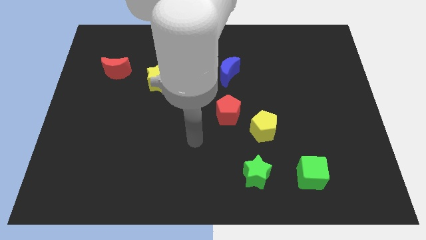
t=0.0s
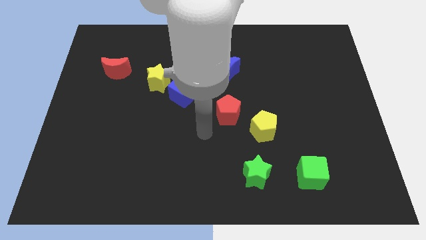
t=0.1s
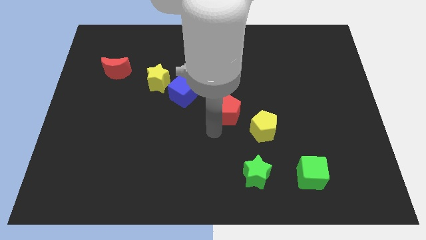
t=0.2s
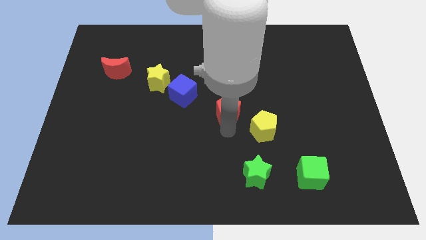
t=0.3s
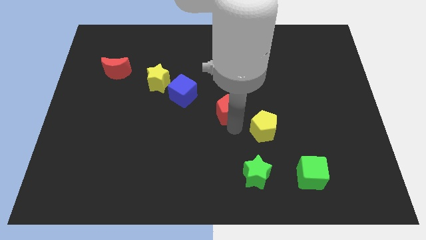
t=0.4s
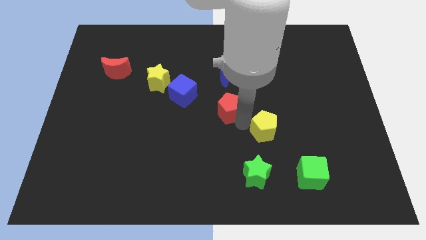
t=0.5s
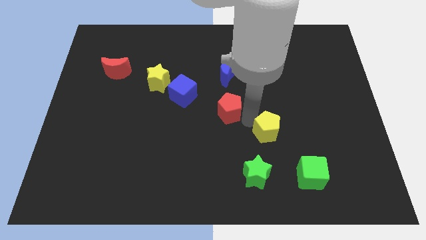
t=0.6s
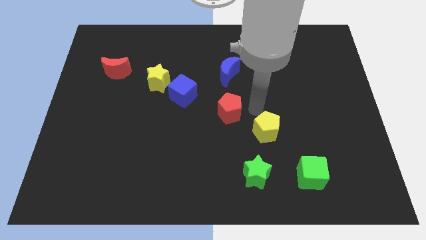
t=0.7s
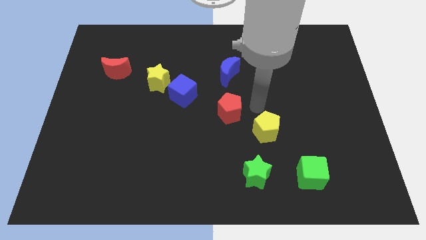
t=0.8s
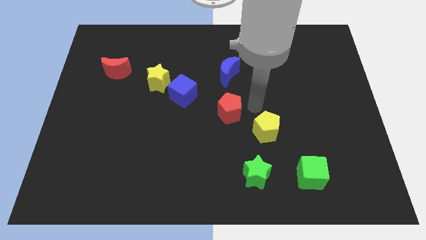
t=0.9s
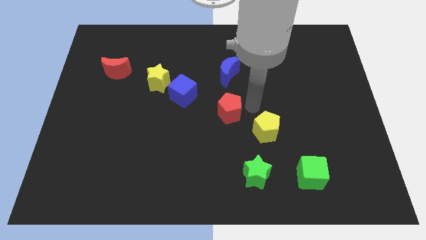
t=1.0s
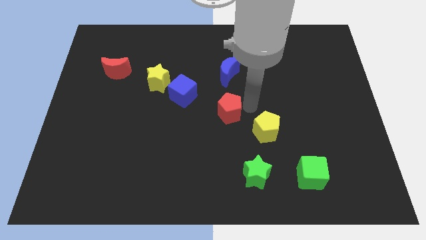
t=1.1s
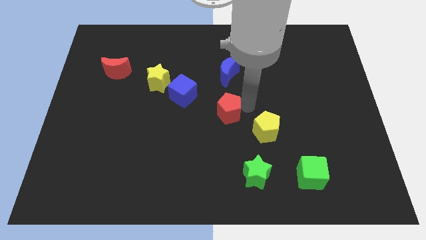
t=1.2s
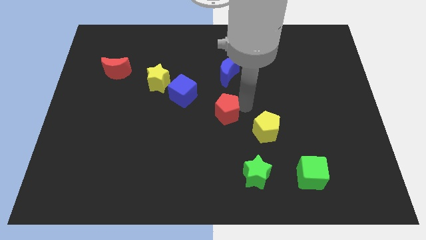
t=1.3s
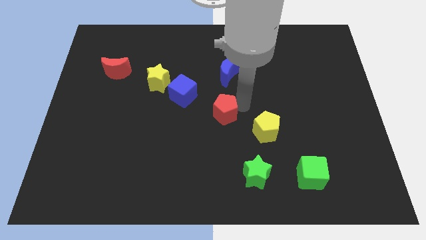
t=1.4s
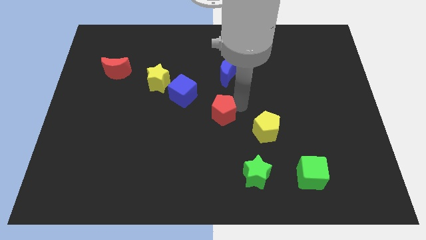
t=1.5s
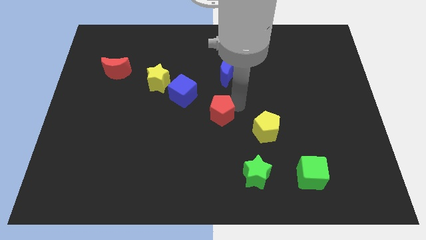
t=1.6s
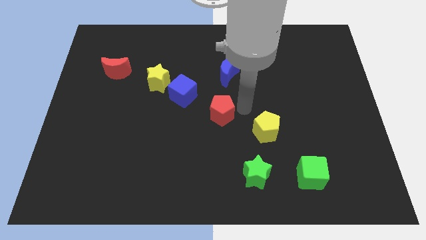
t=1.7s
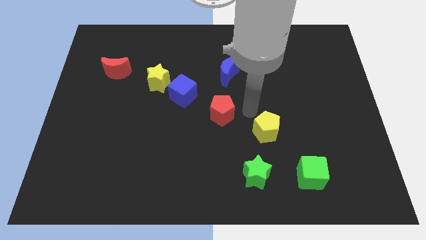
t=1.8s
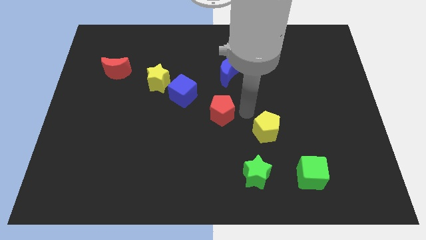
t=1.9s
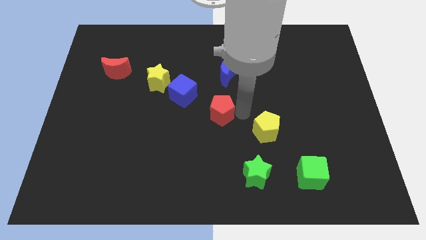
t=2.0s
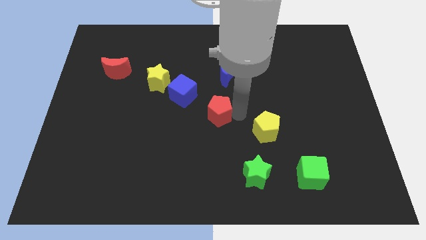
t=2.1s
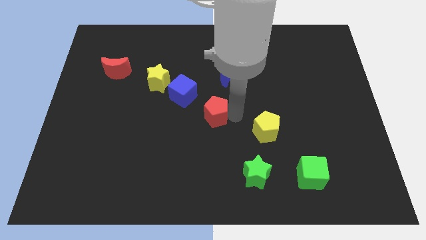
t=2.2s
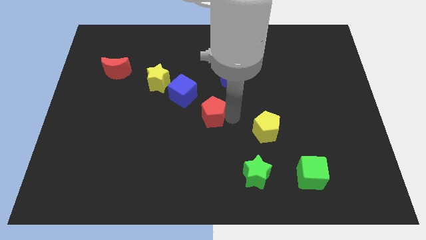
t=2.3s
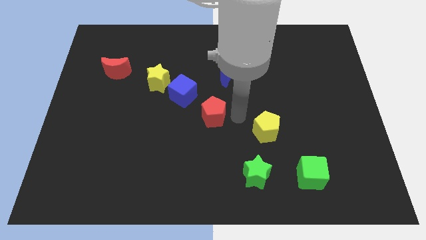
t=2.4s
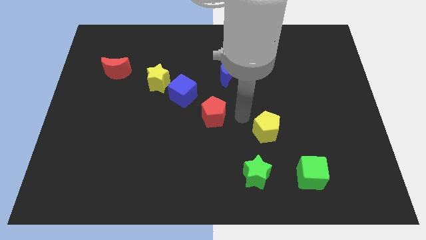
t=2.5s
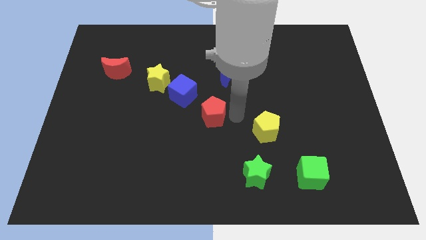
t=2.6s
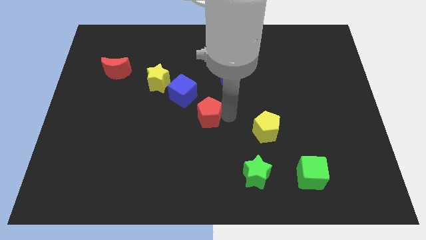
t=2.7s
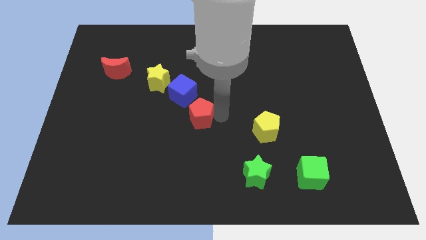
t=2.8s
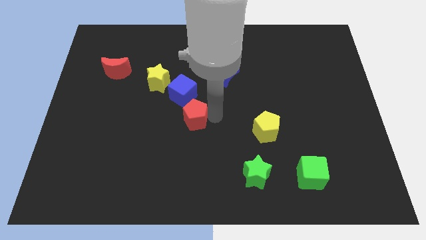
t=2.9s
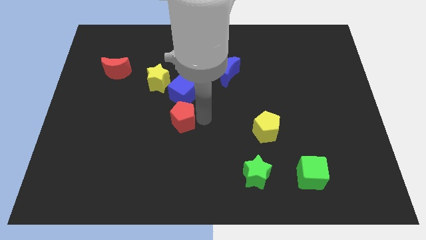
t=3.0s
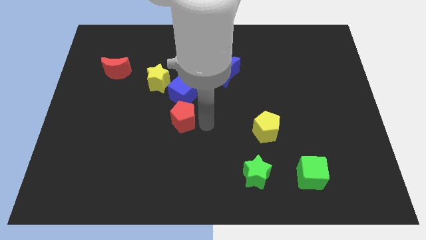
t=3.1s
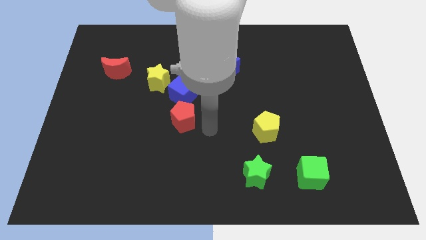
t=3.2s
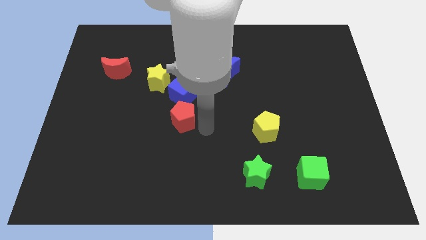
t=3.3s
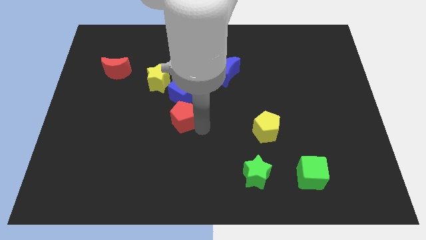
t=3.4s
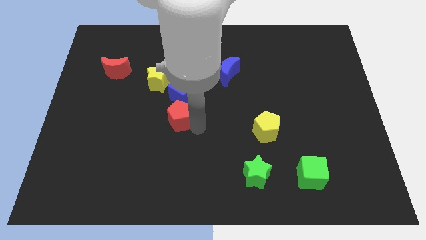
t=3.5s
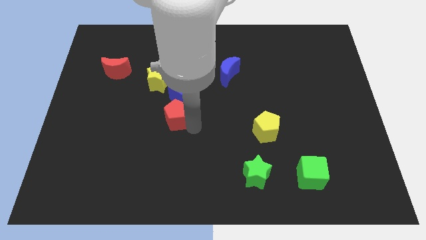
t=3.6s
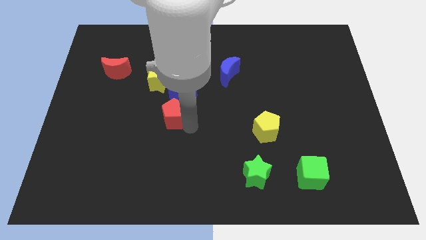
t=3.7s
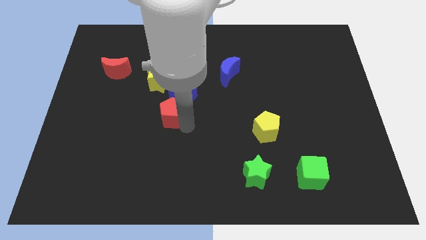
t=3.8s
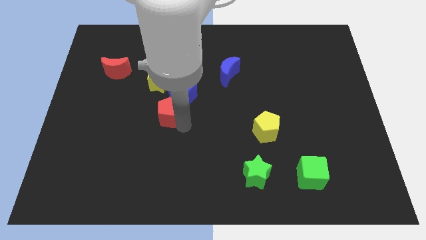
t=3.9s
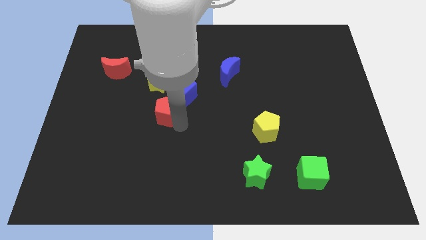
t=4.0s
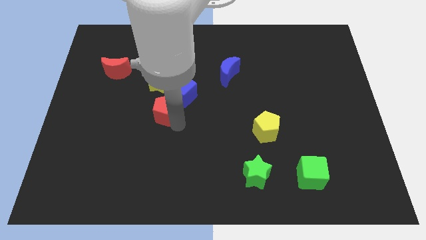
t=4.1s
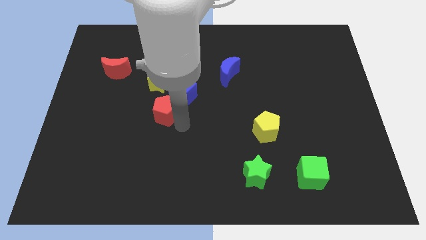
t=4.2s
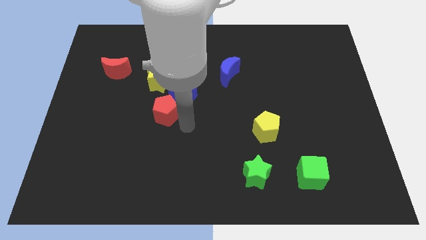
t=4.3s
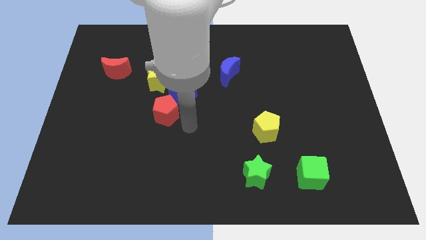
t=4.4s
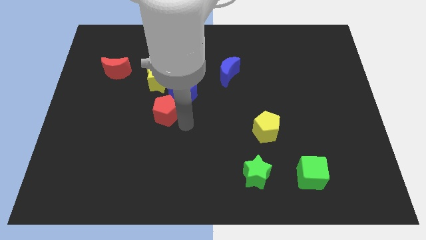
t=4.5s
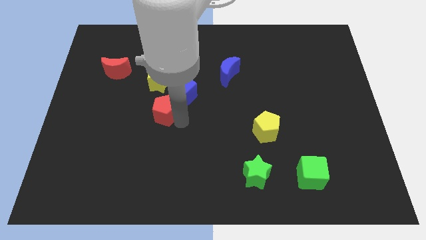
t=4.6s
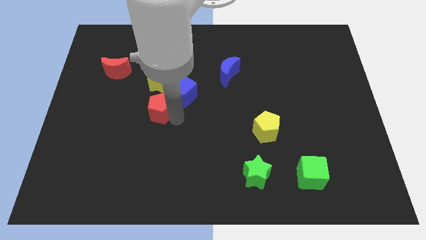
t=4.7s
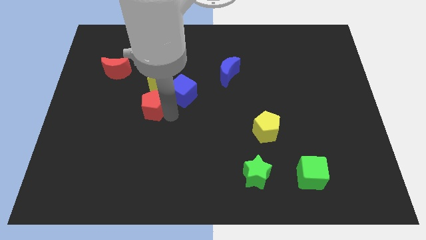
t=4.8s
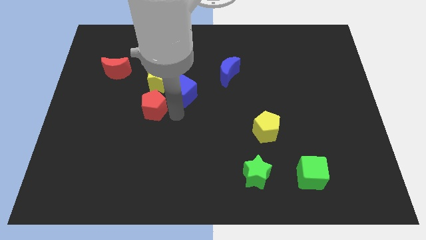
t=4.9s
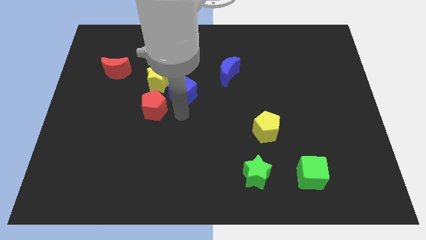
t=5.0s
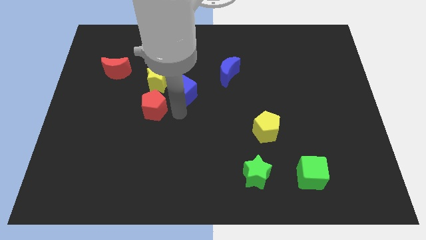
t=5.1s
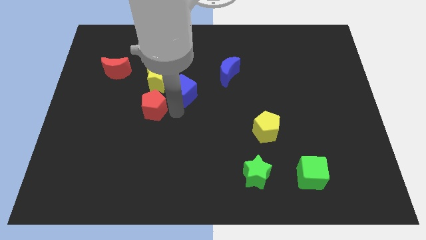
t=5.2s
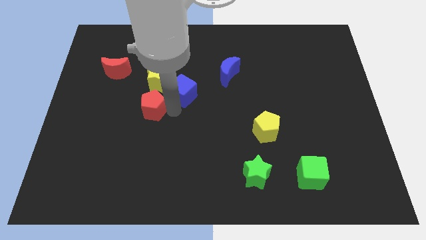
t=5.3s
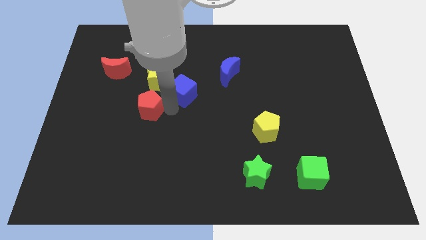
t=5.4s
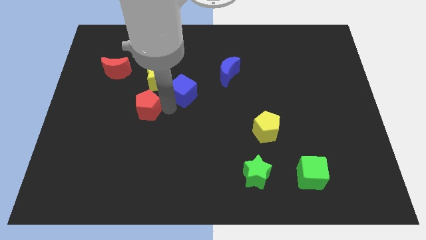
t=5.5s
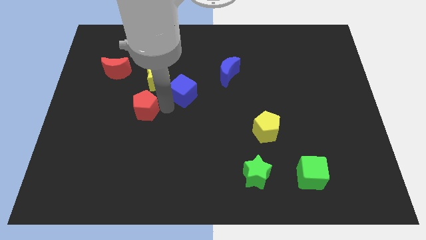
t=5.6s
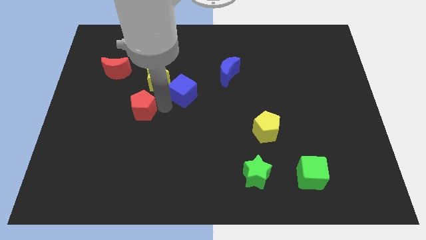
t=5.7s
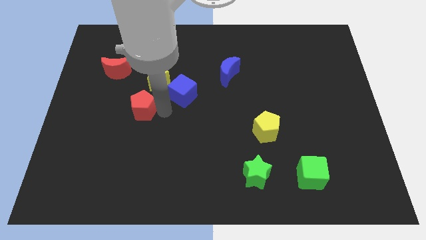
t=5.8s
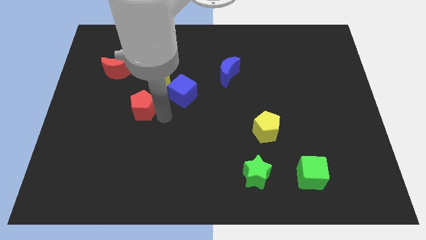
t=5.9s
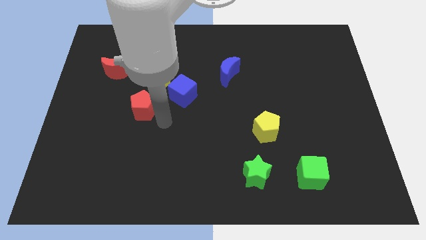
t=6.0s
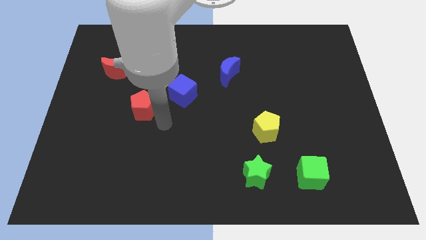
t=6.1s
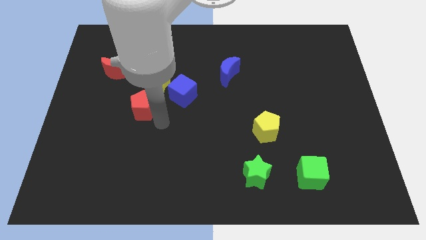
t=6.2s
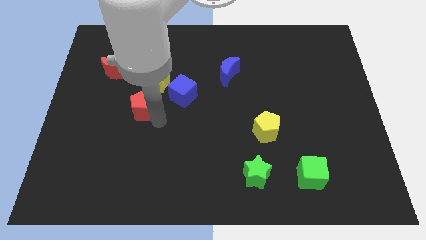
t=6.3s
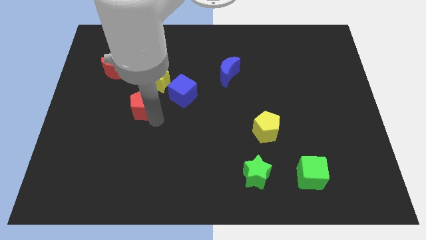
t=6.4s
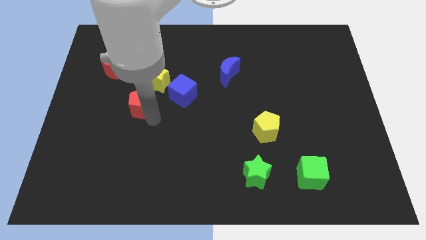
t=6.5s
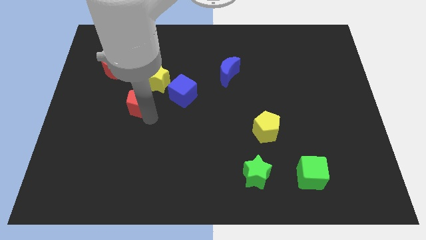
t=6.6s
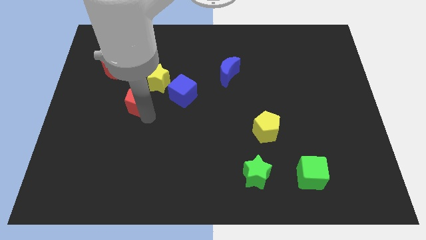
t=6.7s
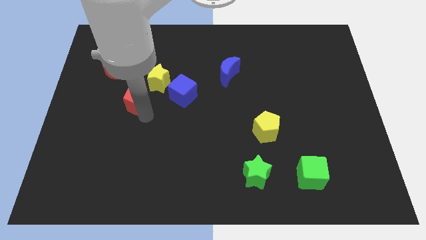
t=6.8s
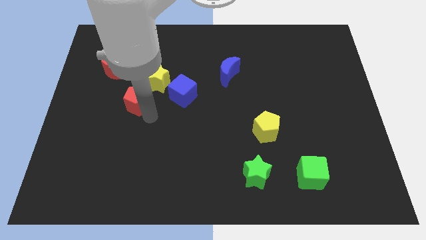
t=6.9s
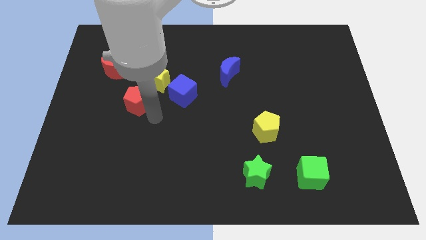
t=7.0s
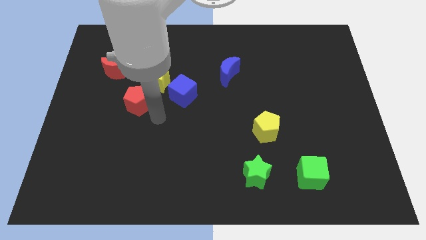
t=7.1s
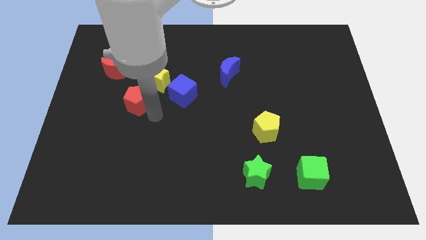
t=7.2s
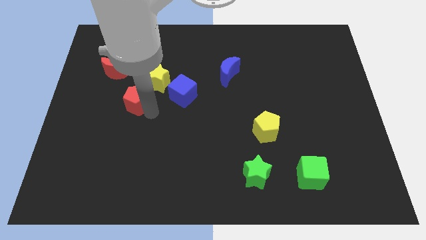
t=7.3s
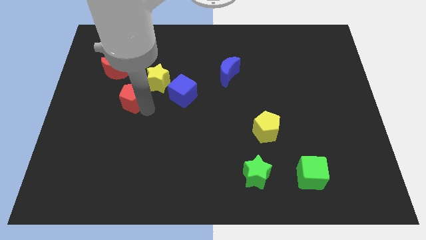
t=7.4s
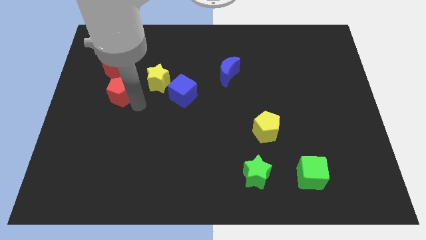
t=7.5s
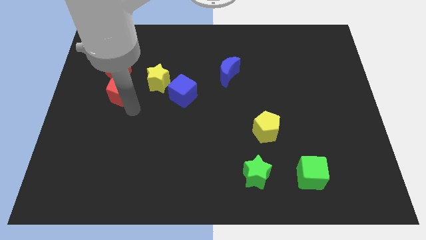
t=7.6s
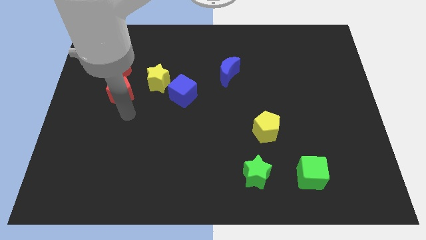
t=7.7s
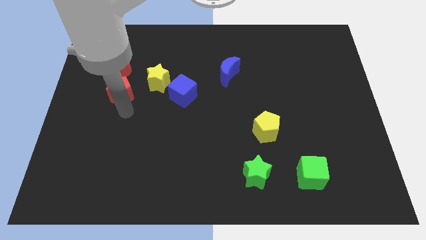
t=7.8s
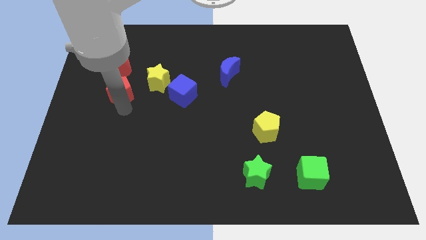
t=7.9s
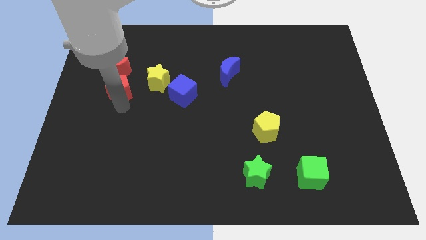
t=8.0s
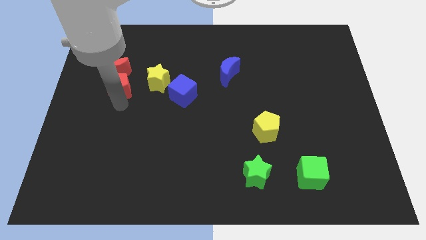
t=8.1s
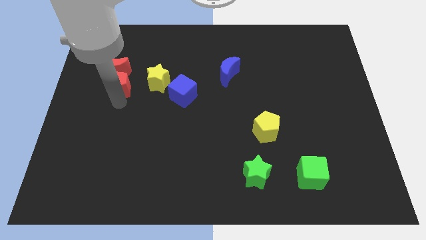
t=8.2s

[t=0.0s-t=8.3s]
slide the red pentagon close to the red moon
